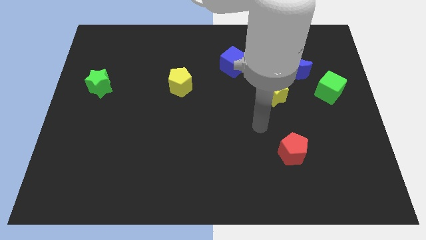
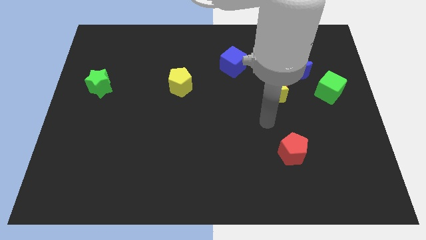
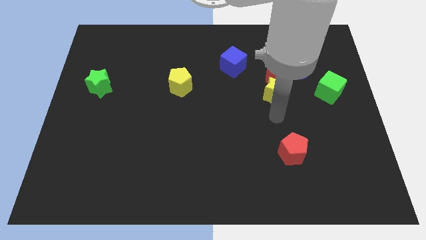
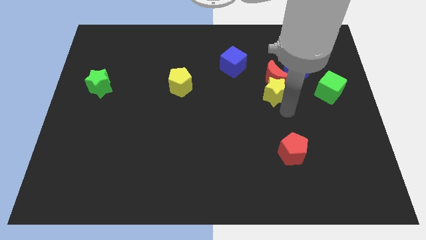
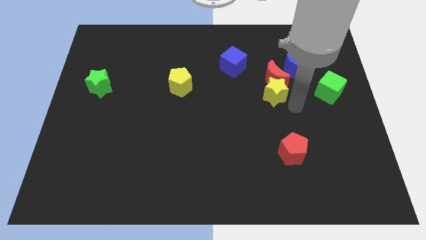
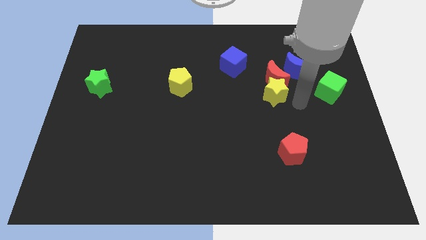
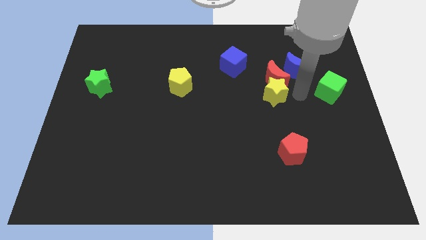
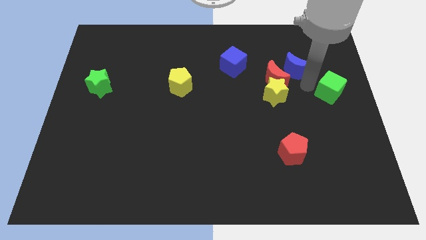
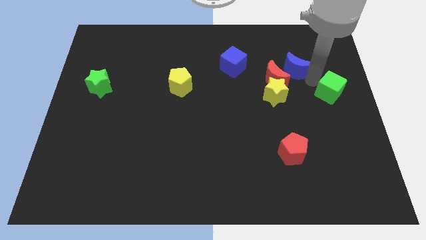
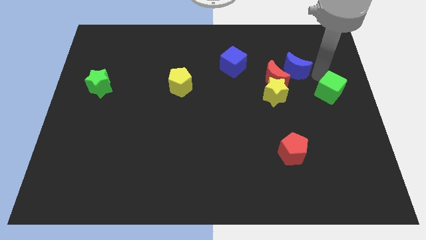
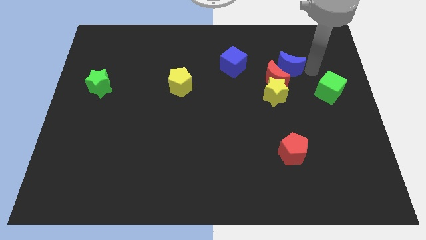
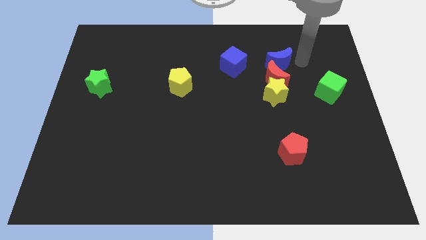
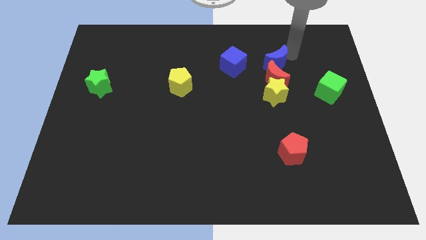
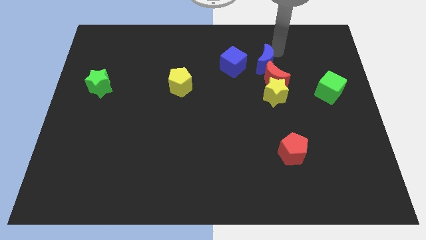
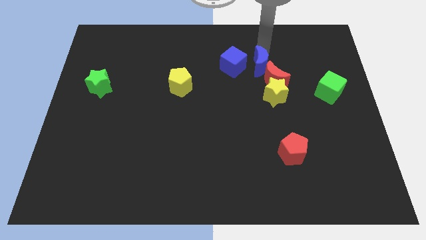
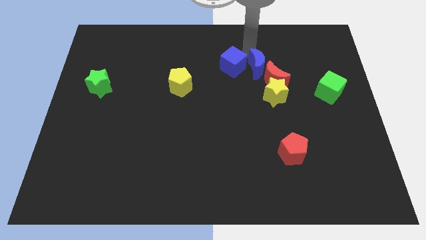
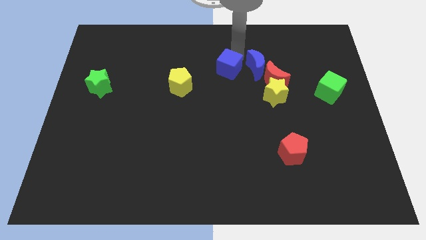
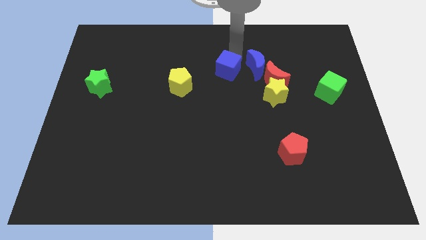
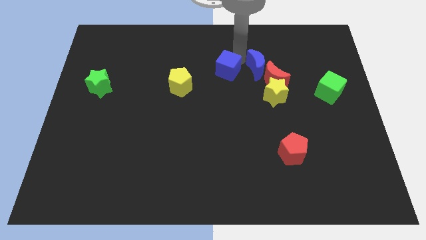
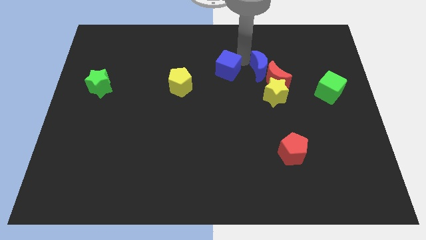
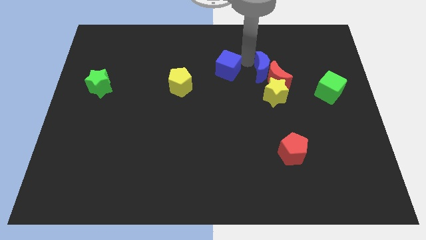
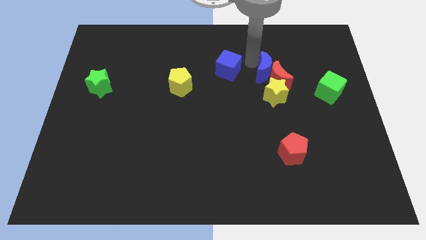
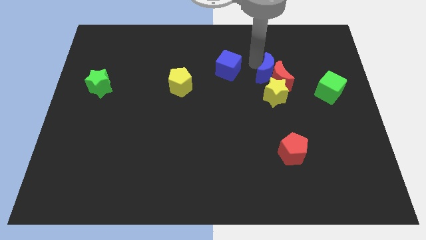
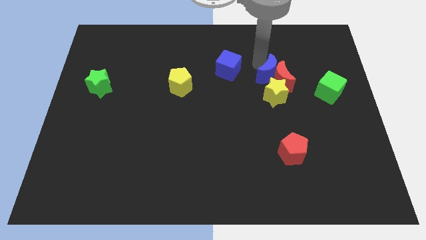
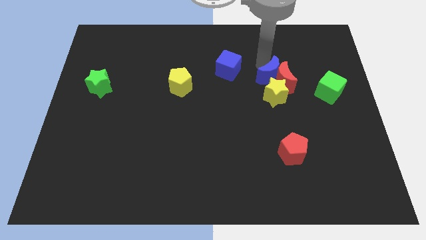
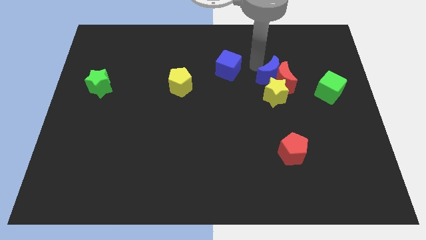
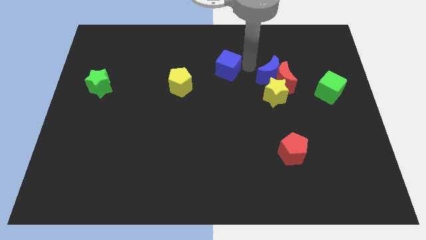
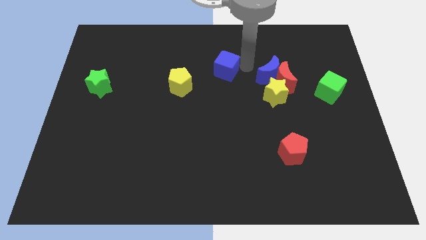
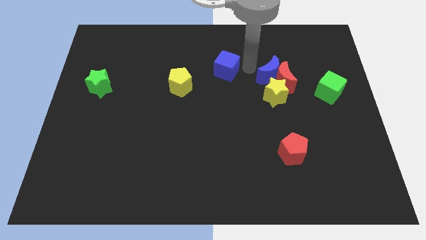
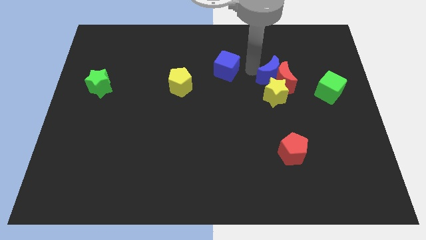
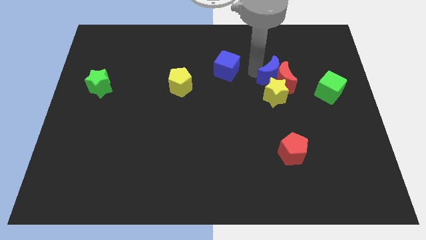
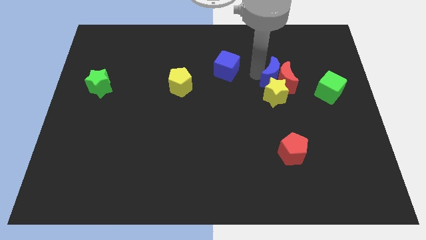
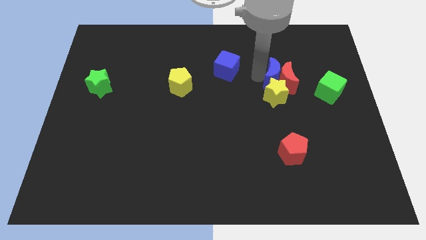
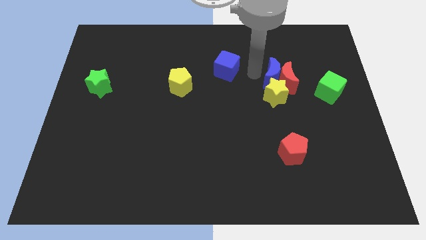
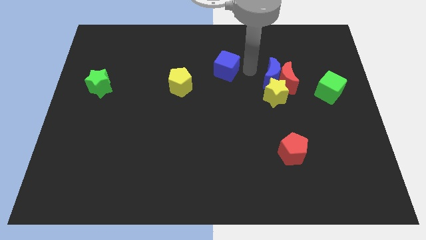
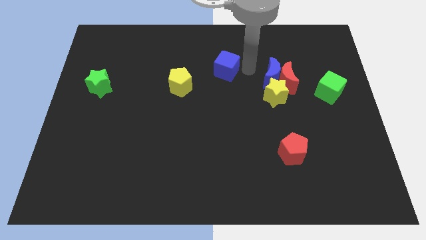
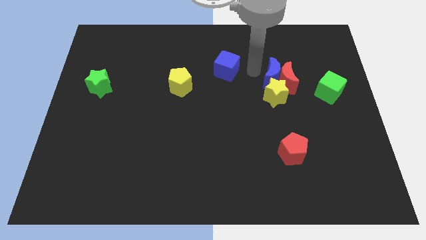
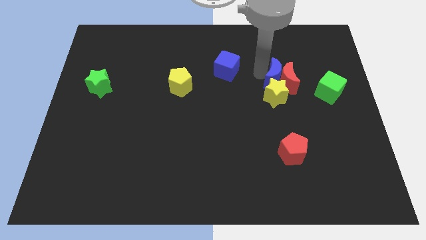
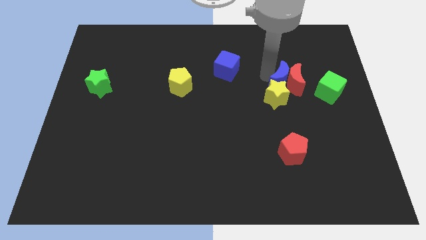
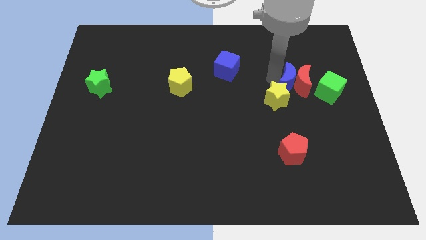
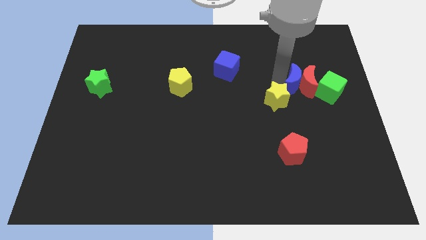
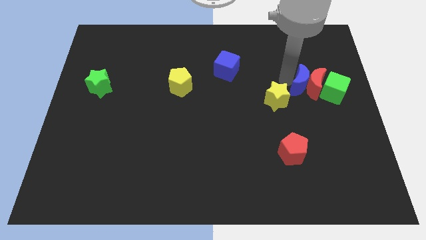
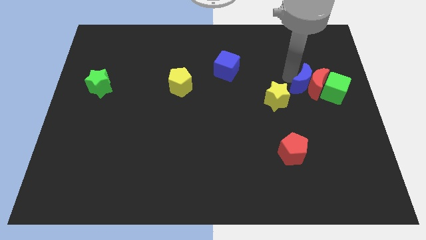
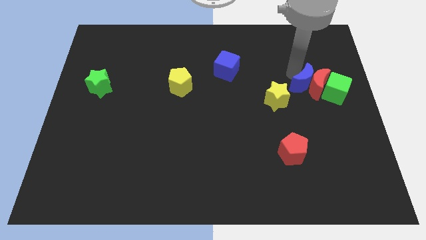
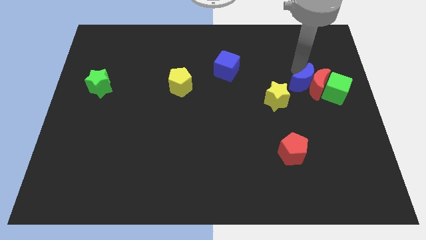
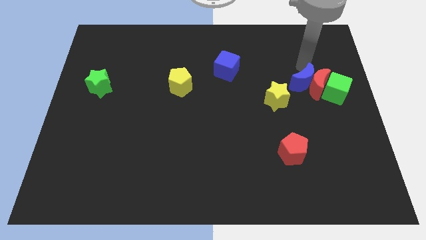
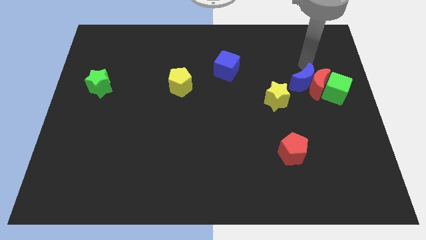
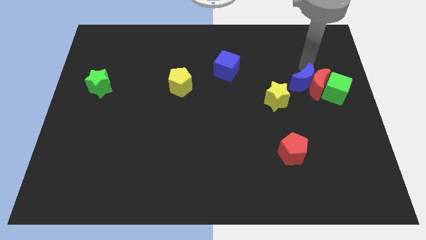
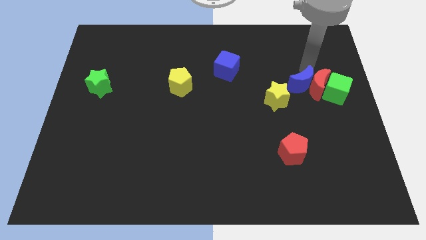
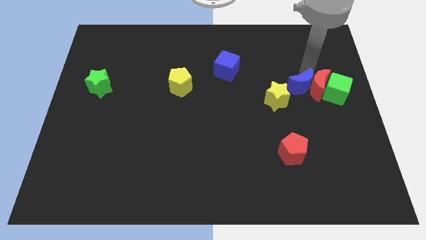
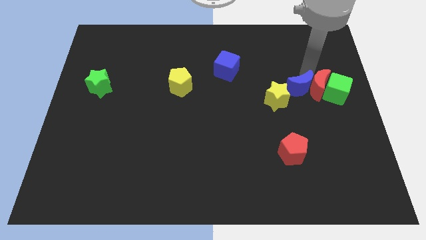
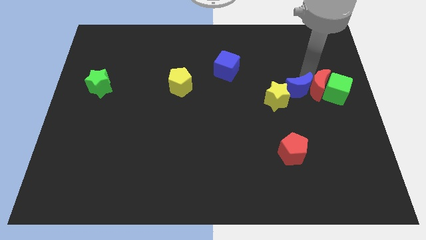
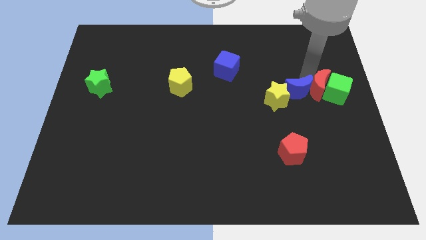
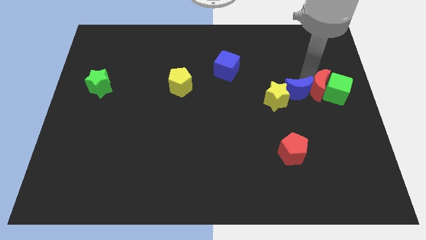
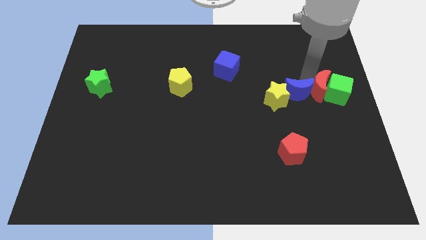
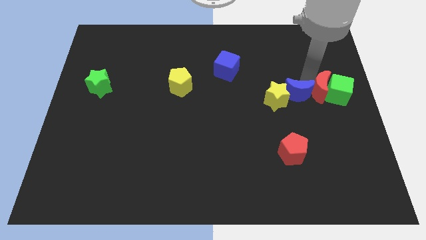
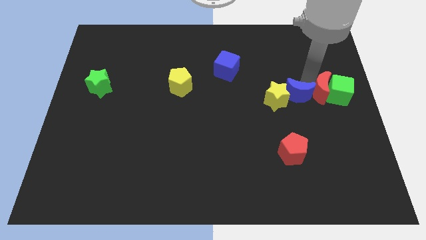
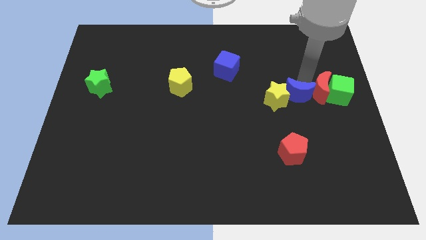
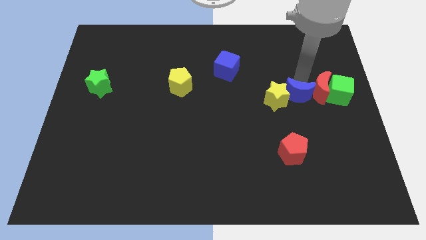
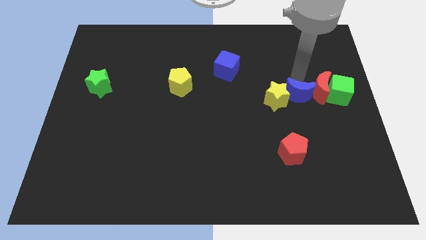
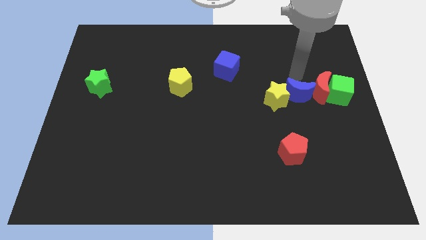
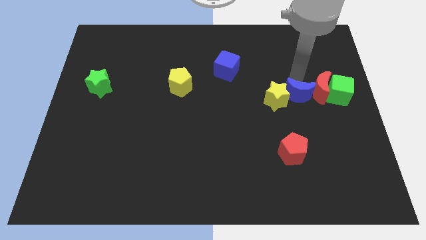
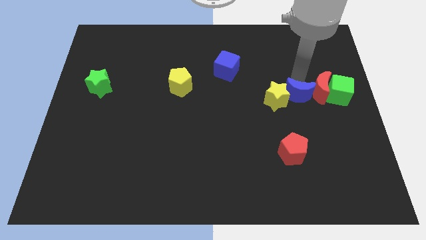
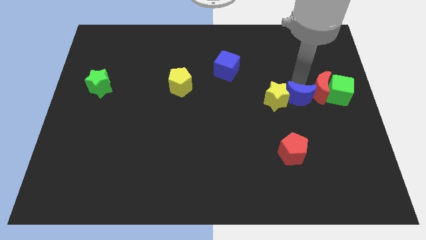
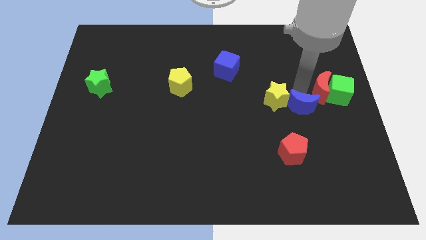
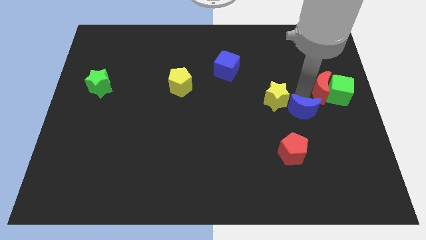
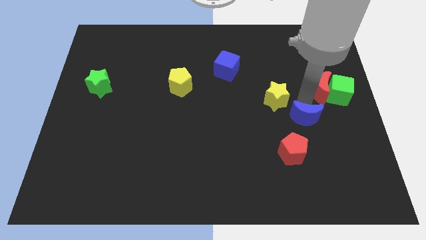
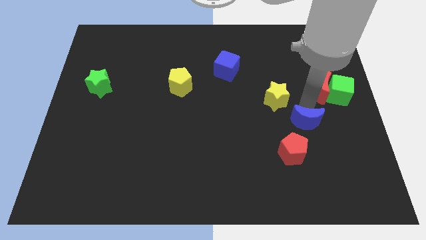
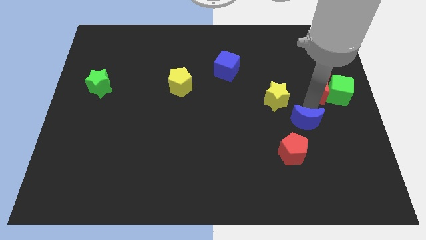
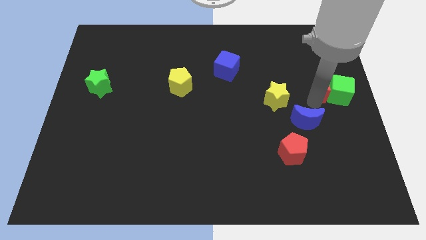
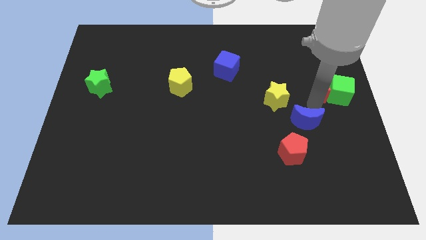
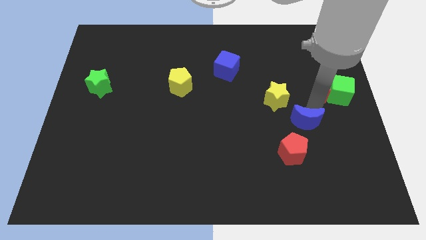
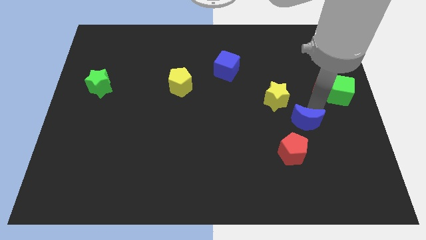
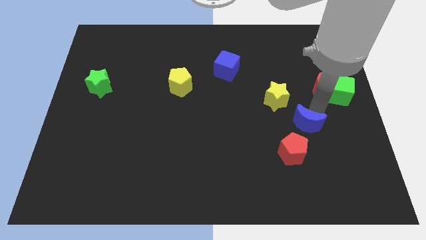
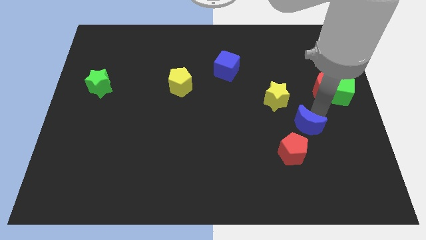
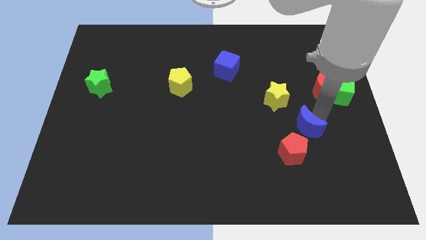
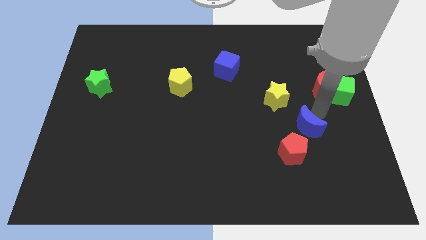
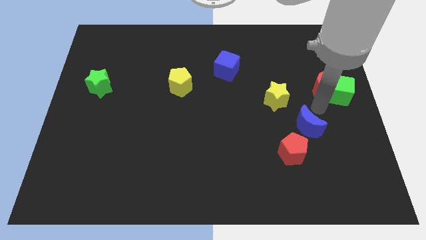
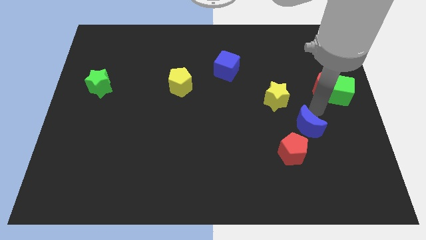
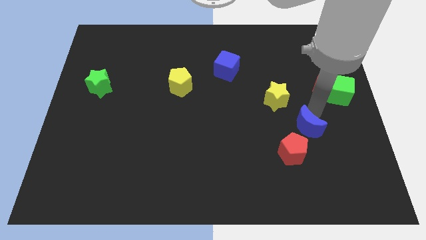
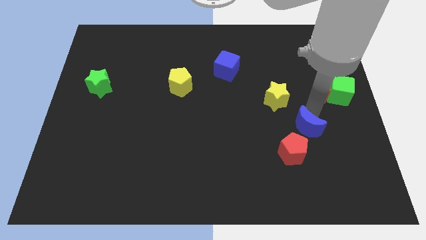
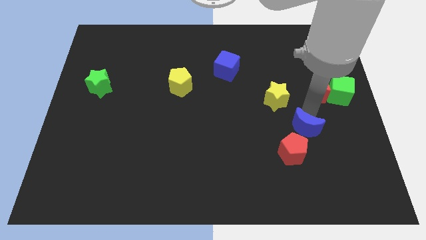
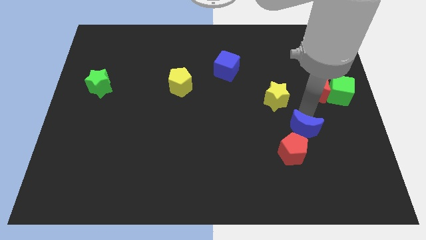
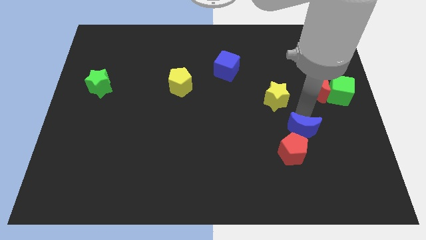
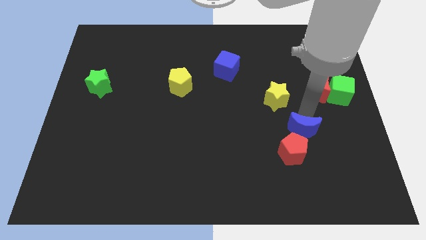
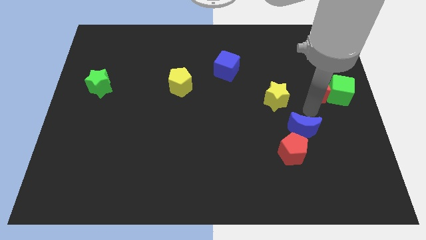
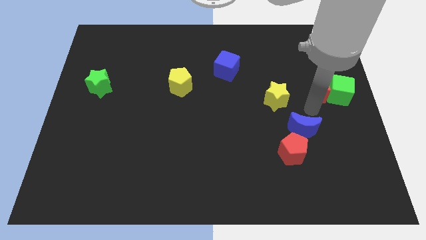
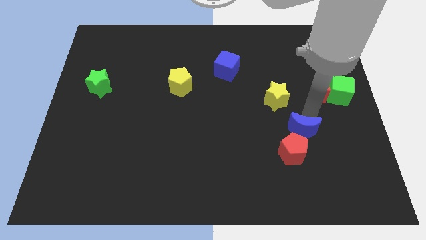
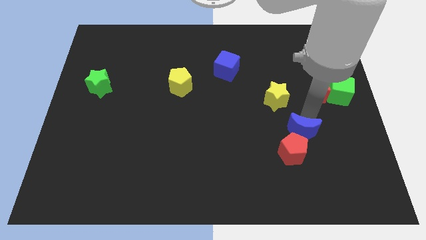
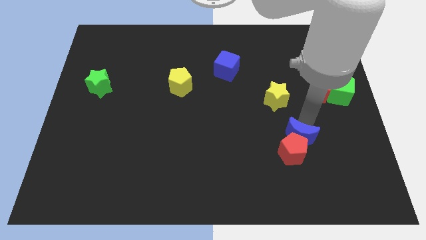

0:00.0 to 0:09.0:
slide the blue moon next to the red pentagon
